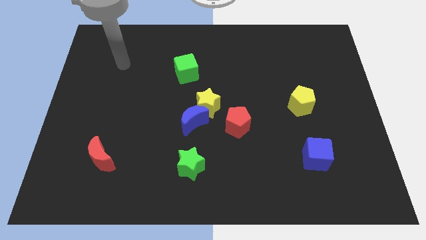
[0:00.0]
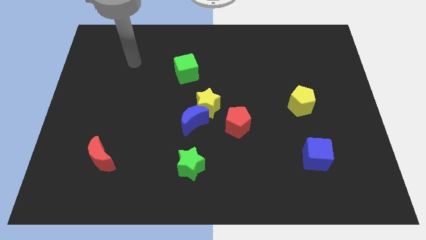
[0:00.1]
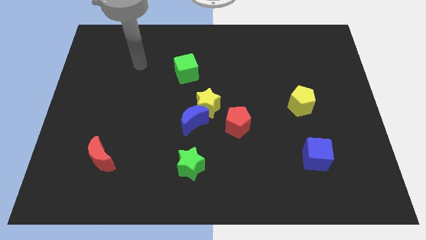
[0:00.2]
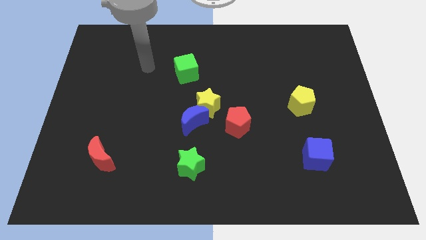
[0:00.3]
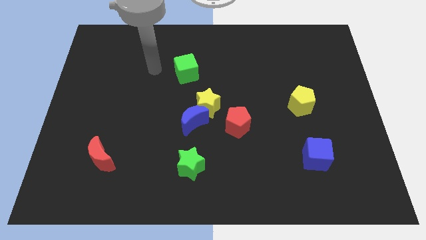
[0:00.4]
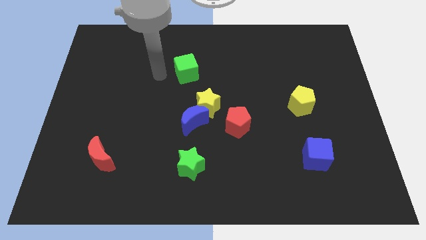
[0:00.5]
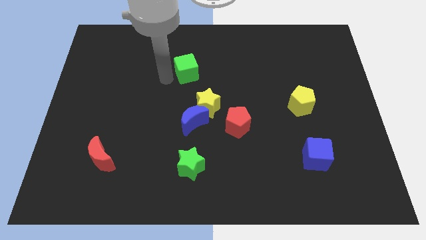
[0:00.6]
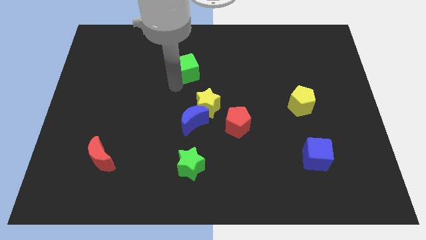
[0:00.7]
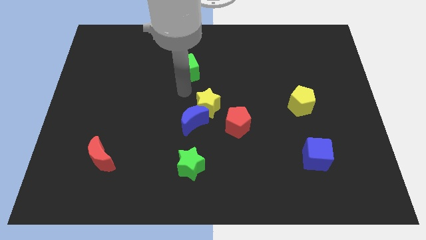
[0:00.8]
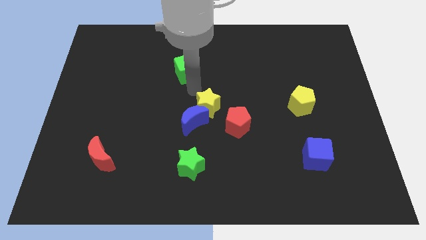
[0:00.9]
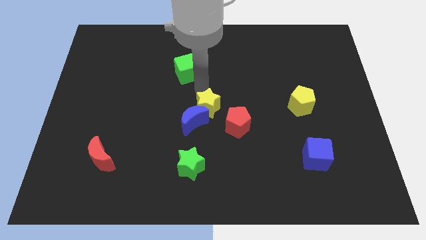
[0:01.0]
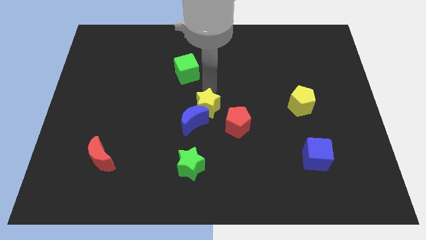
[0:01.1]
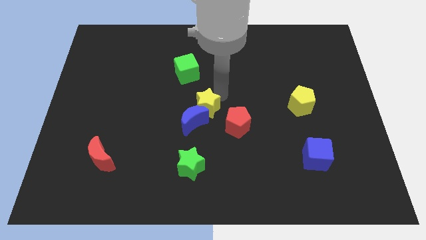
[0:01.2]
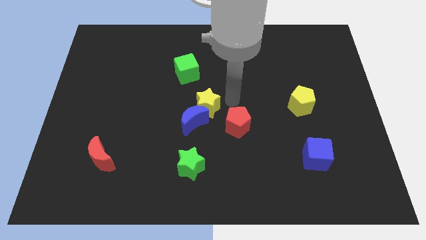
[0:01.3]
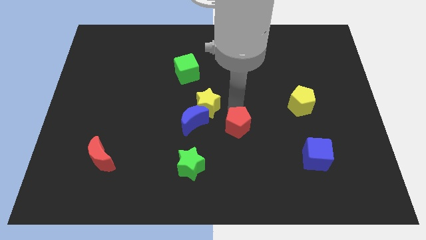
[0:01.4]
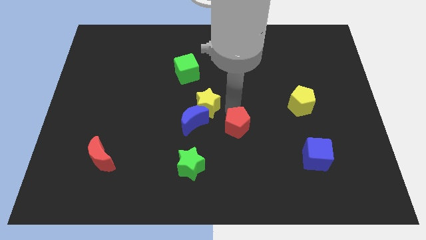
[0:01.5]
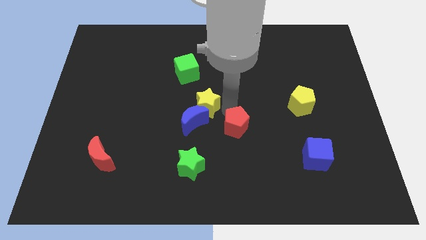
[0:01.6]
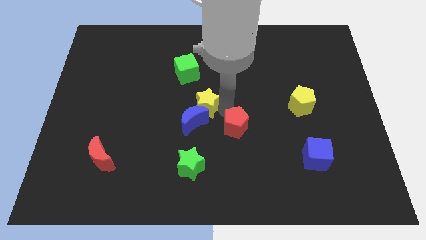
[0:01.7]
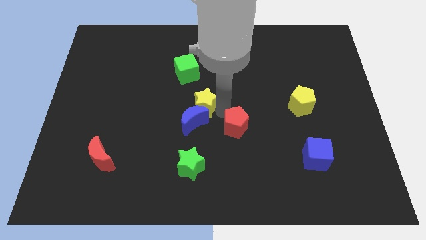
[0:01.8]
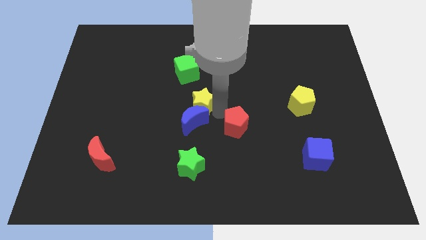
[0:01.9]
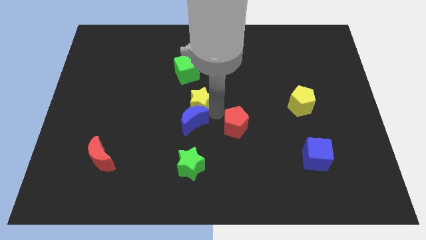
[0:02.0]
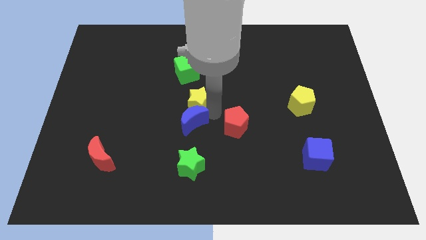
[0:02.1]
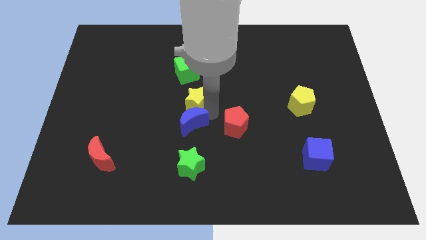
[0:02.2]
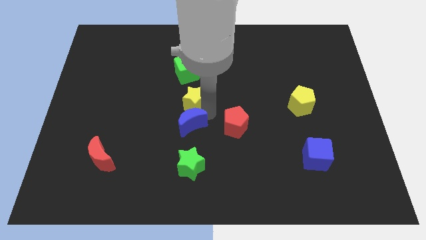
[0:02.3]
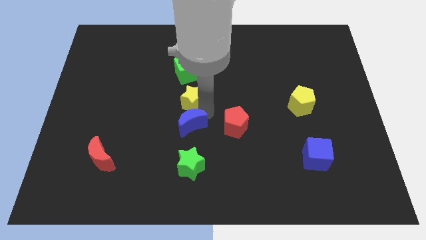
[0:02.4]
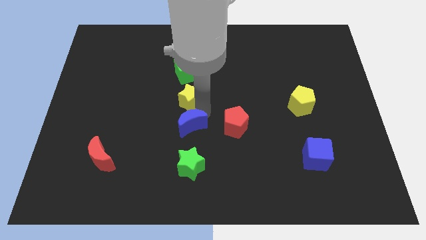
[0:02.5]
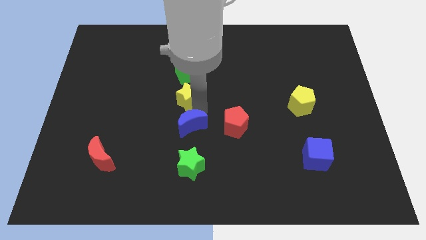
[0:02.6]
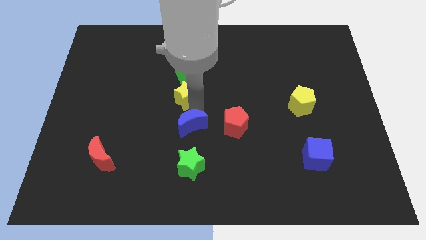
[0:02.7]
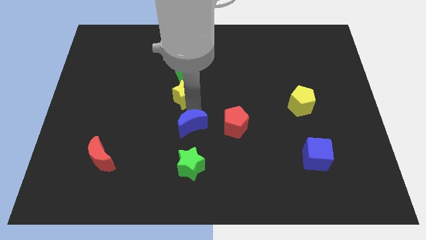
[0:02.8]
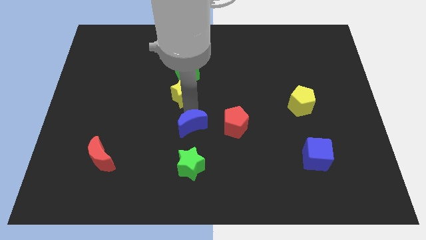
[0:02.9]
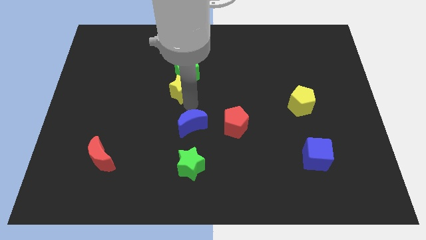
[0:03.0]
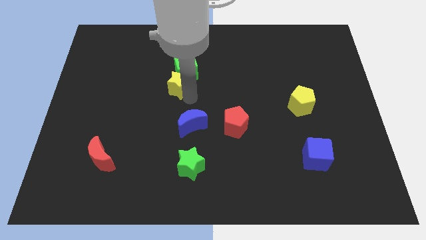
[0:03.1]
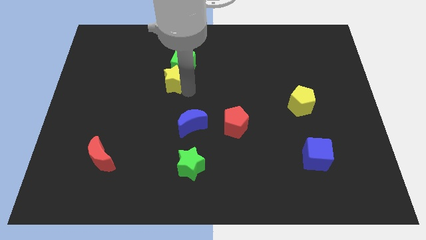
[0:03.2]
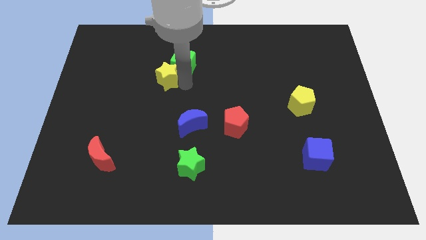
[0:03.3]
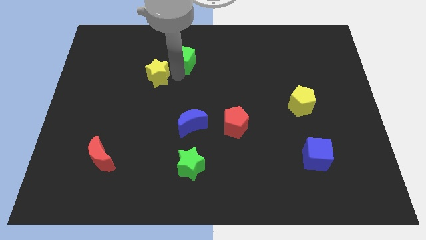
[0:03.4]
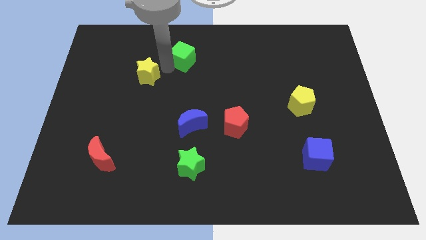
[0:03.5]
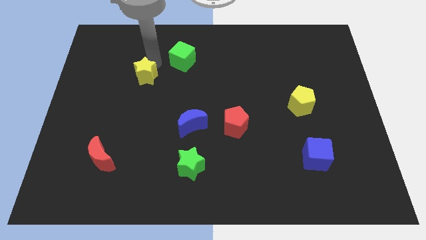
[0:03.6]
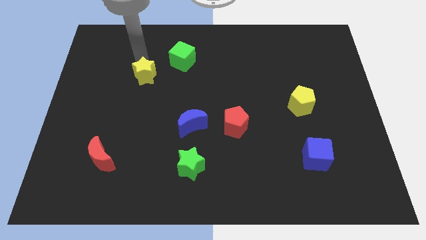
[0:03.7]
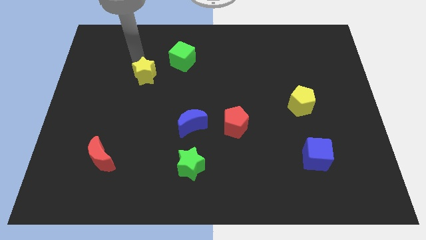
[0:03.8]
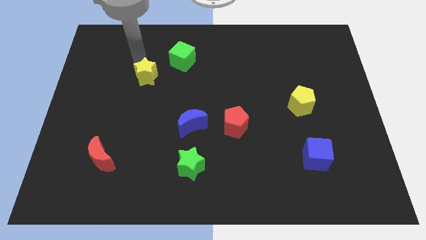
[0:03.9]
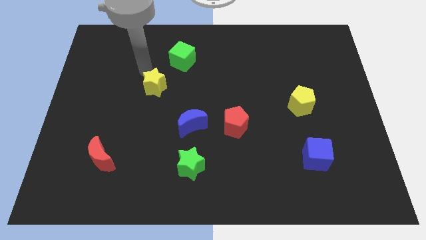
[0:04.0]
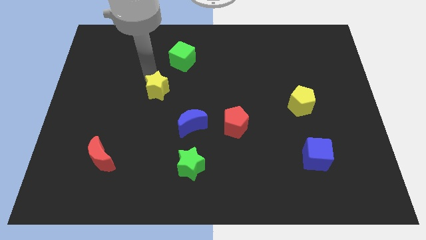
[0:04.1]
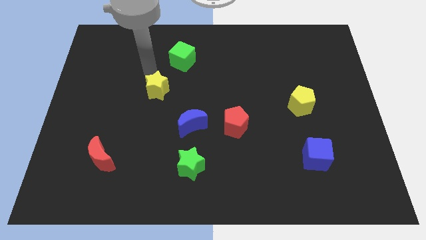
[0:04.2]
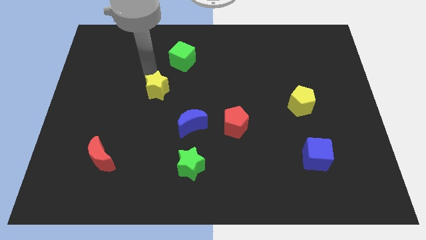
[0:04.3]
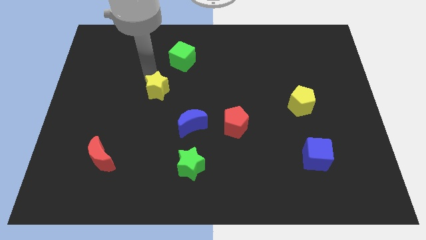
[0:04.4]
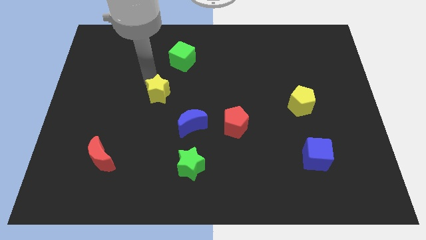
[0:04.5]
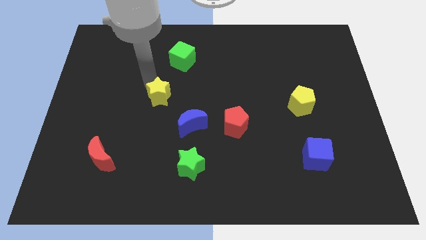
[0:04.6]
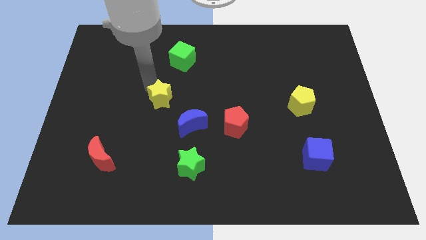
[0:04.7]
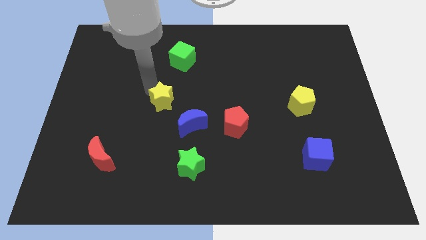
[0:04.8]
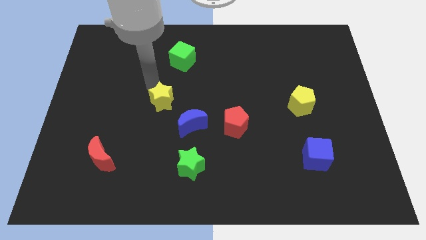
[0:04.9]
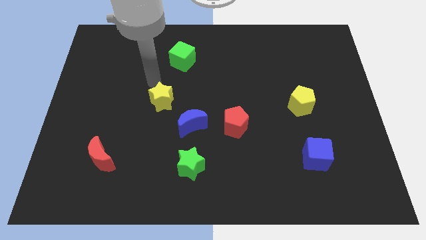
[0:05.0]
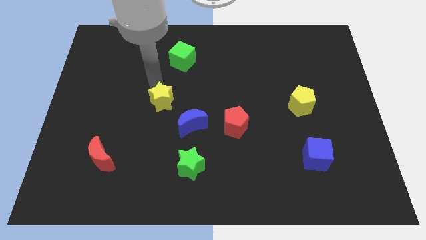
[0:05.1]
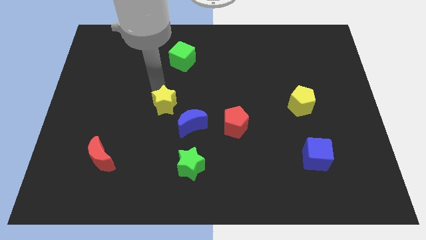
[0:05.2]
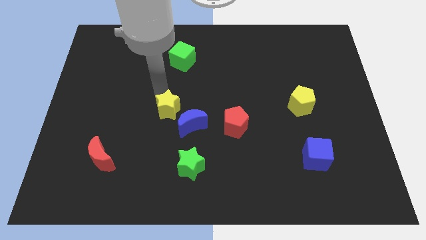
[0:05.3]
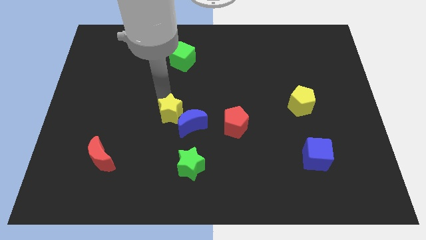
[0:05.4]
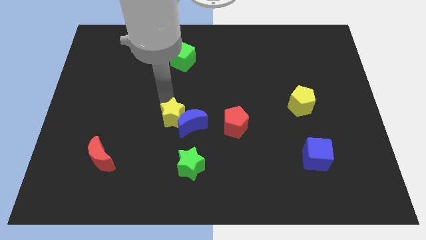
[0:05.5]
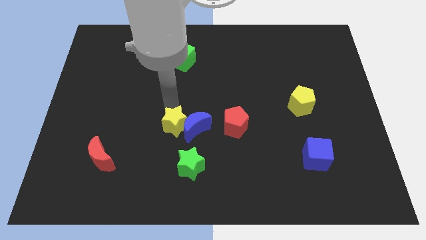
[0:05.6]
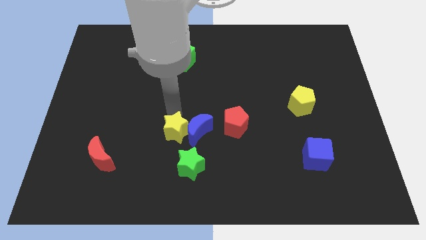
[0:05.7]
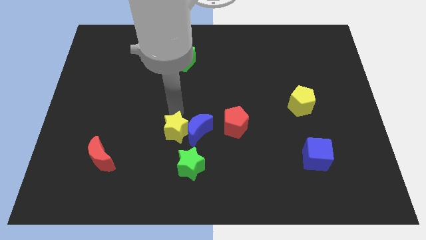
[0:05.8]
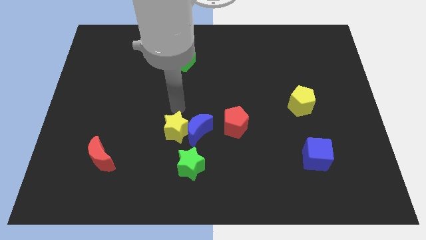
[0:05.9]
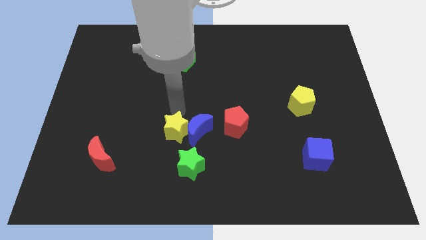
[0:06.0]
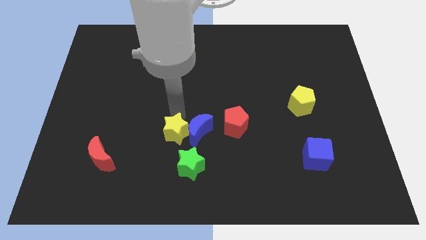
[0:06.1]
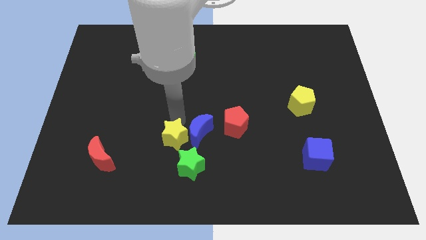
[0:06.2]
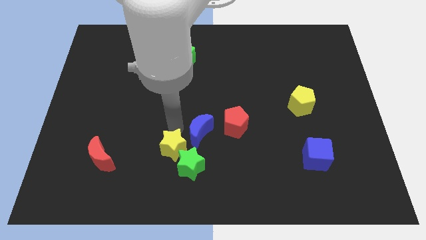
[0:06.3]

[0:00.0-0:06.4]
move the yellow star next to the green star

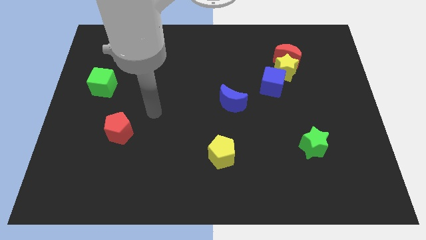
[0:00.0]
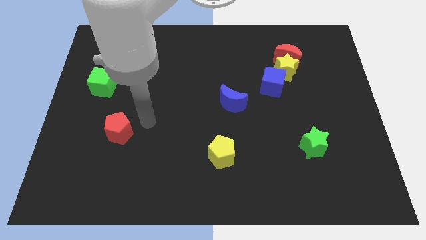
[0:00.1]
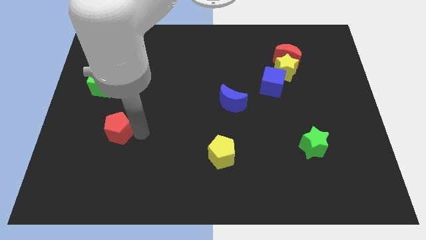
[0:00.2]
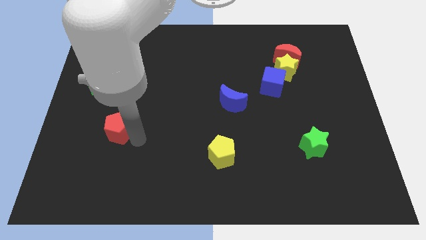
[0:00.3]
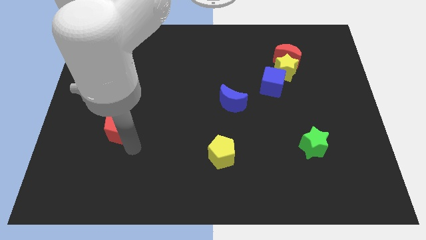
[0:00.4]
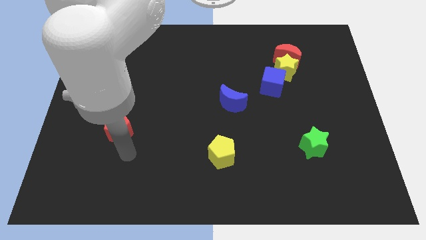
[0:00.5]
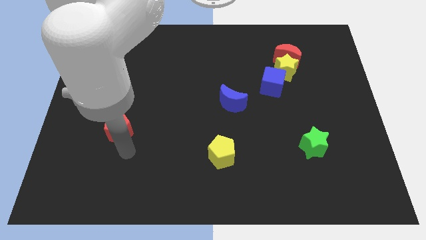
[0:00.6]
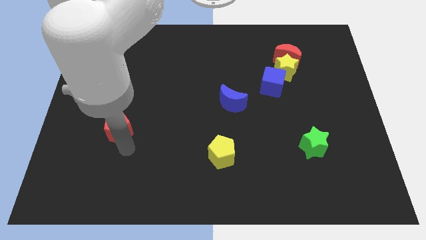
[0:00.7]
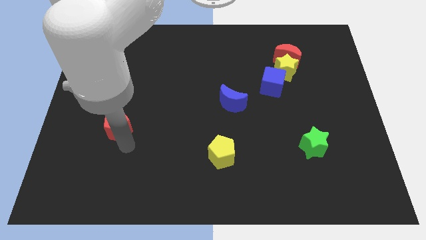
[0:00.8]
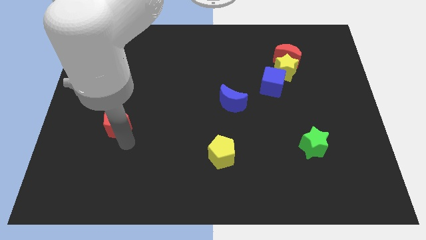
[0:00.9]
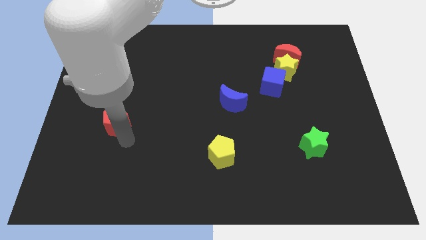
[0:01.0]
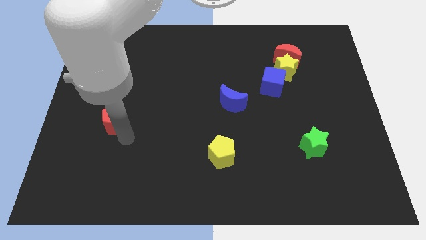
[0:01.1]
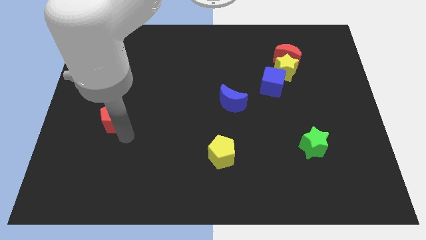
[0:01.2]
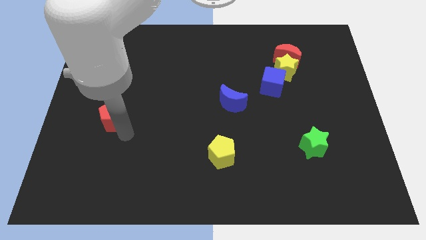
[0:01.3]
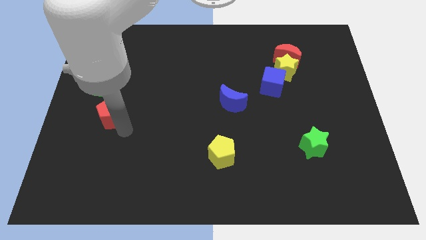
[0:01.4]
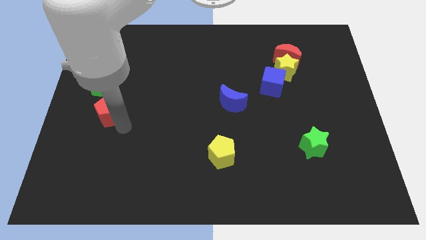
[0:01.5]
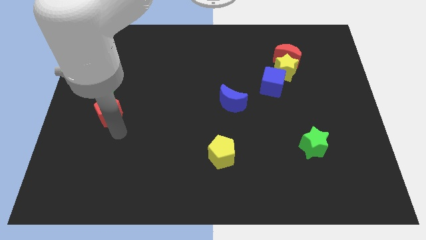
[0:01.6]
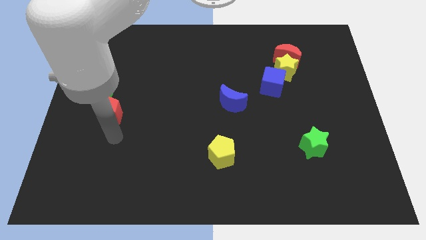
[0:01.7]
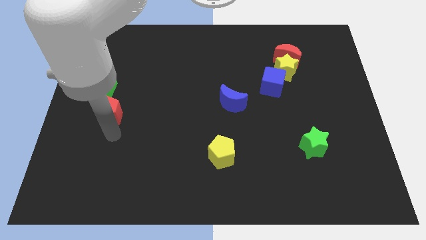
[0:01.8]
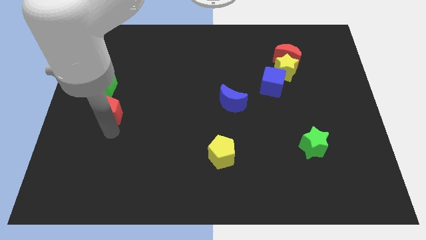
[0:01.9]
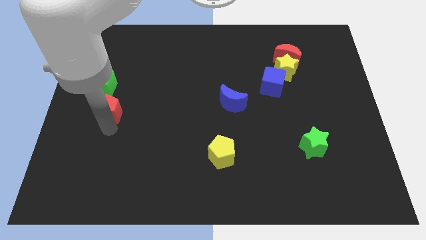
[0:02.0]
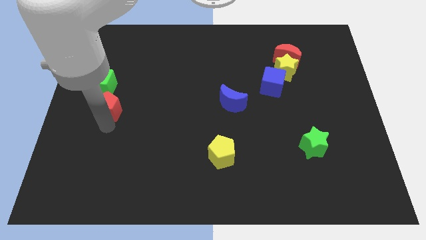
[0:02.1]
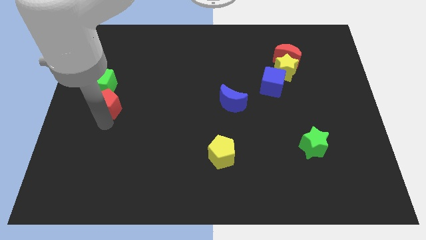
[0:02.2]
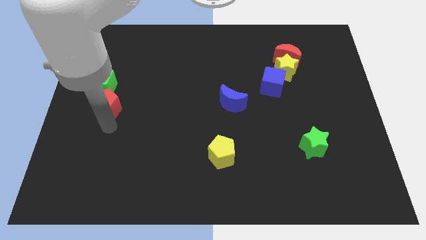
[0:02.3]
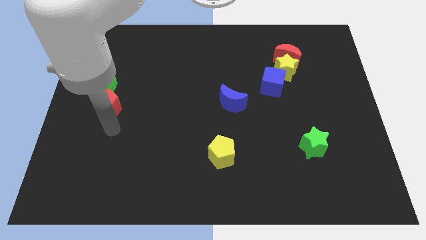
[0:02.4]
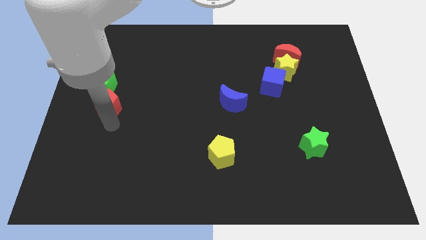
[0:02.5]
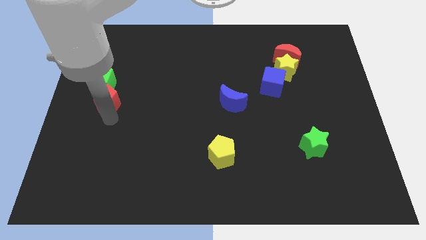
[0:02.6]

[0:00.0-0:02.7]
move the red pentagon close to the green cube
